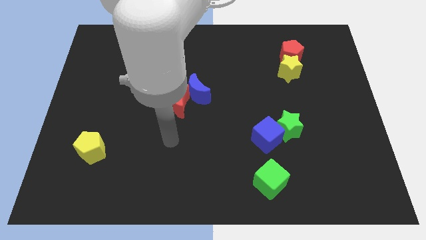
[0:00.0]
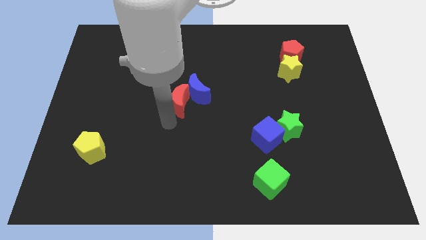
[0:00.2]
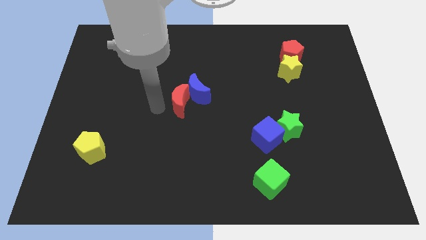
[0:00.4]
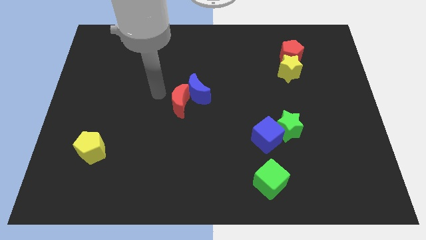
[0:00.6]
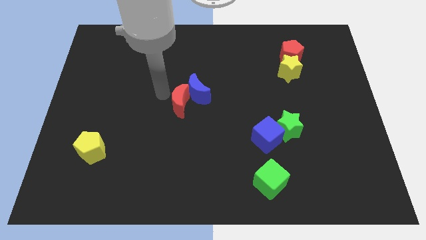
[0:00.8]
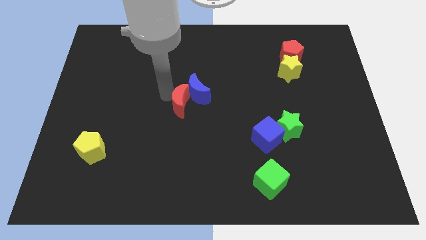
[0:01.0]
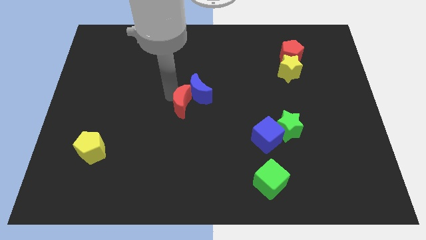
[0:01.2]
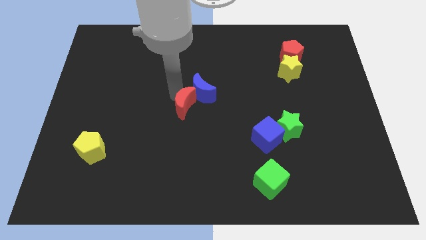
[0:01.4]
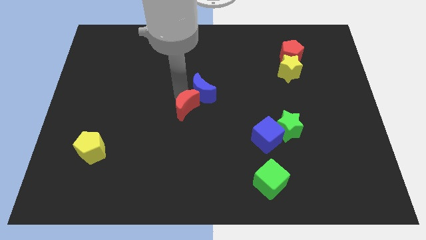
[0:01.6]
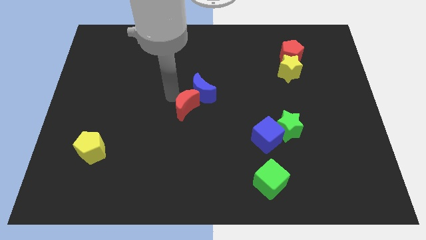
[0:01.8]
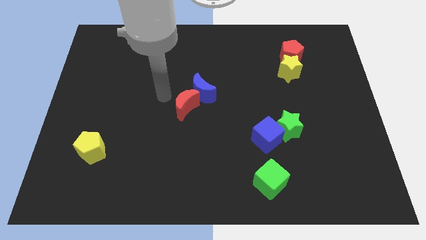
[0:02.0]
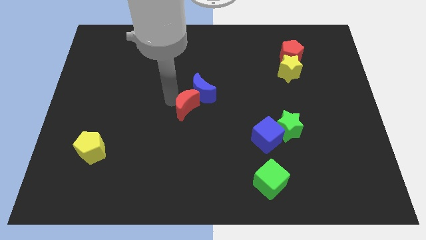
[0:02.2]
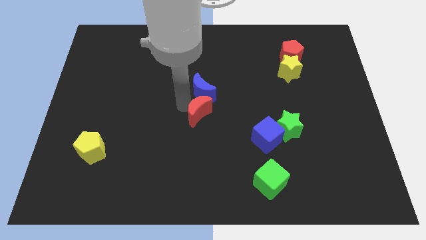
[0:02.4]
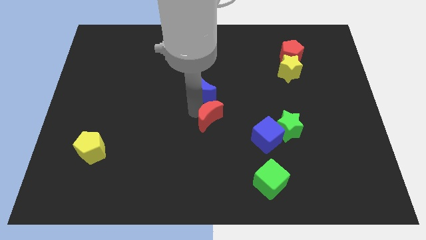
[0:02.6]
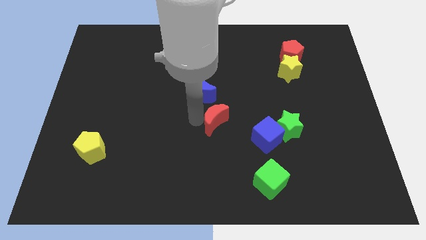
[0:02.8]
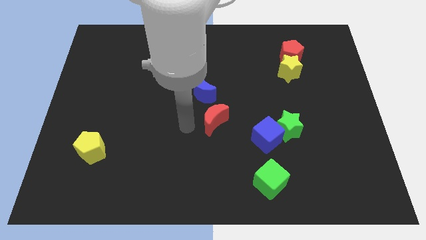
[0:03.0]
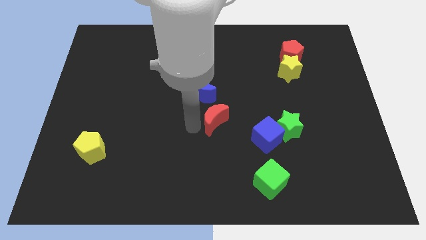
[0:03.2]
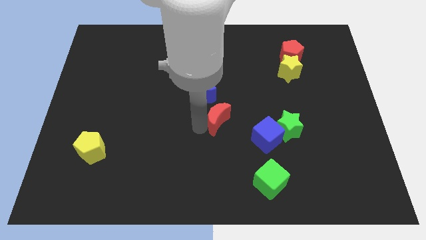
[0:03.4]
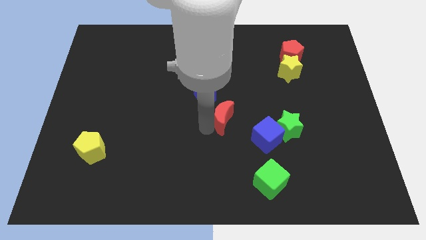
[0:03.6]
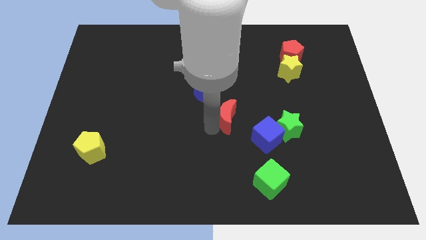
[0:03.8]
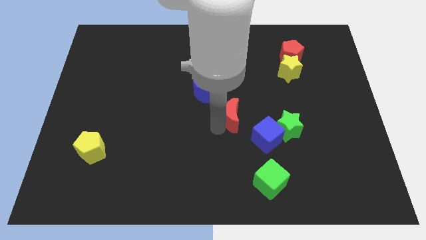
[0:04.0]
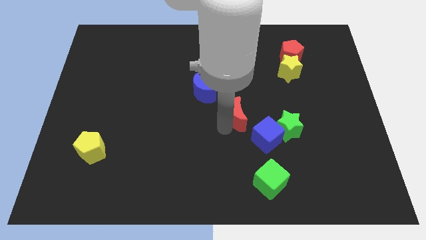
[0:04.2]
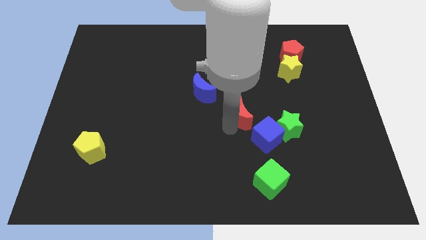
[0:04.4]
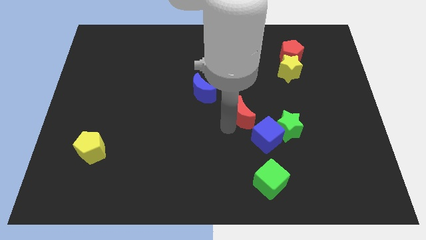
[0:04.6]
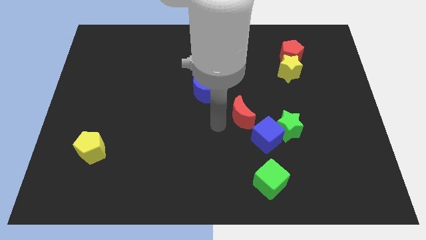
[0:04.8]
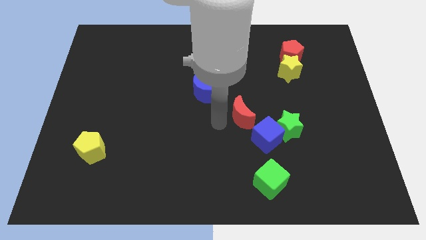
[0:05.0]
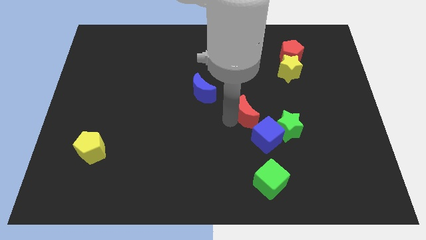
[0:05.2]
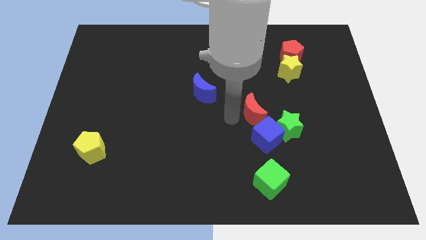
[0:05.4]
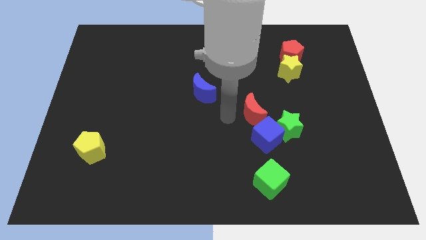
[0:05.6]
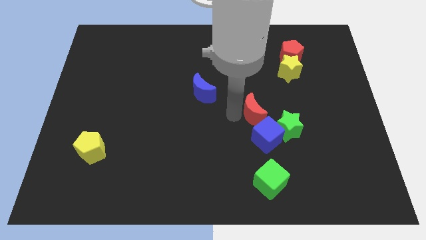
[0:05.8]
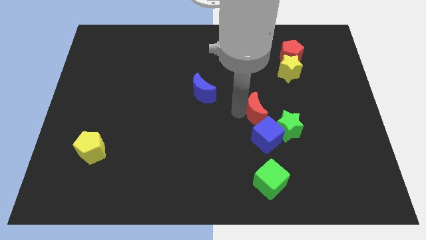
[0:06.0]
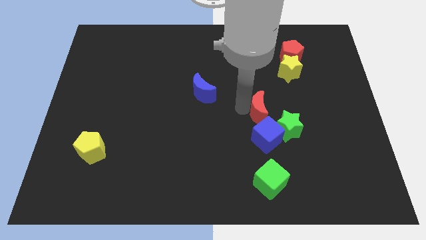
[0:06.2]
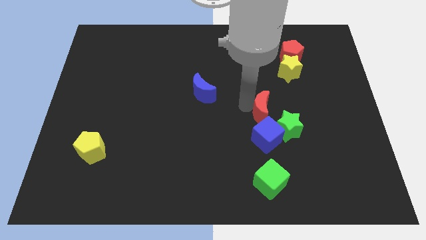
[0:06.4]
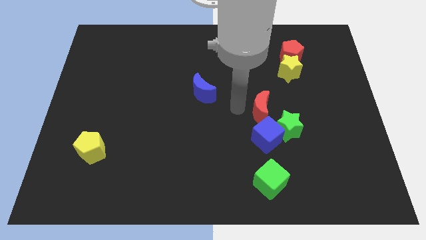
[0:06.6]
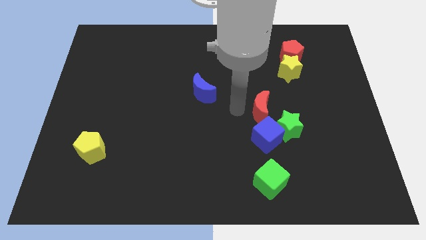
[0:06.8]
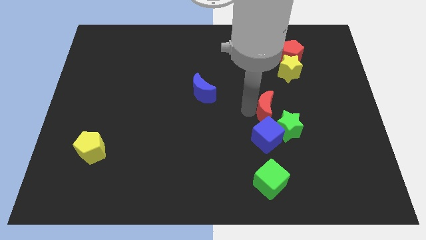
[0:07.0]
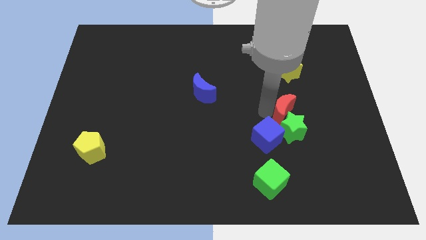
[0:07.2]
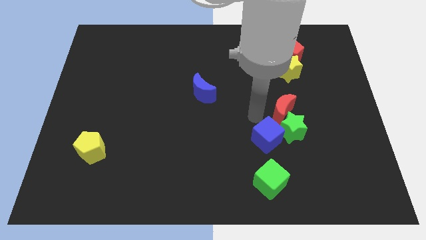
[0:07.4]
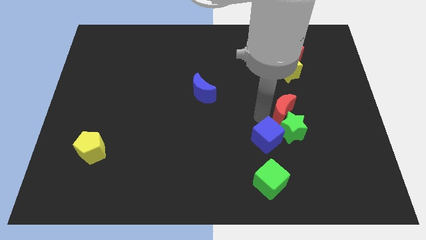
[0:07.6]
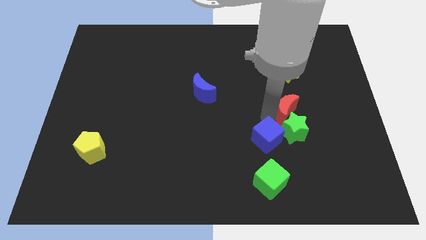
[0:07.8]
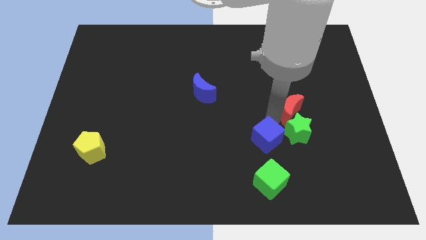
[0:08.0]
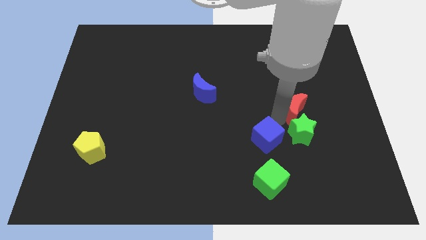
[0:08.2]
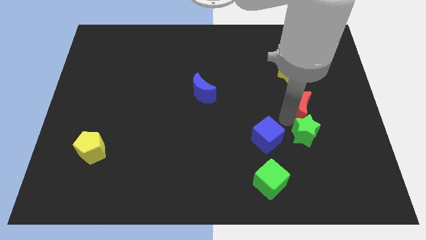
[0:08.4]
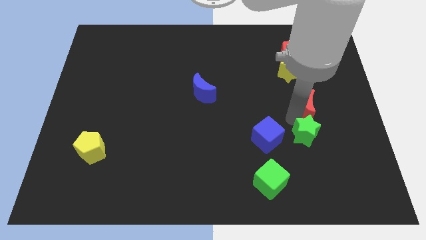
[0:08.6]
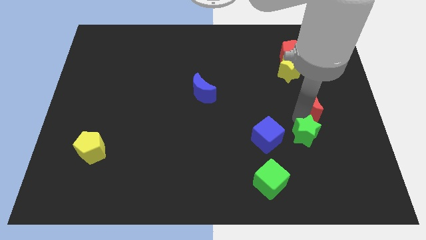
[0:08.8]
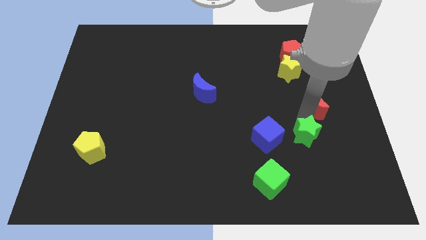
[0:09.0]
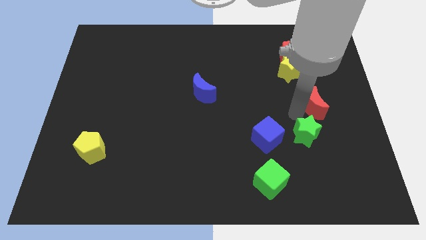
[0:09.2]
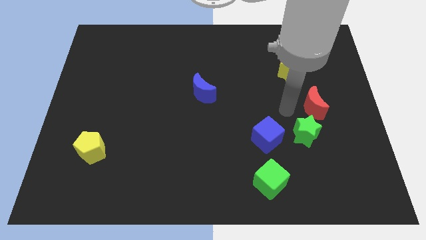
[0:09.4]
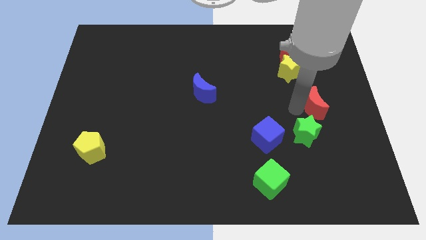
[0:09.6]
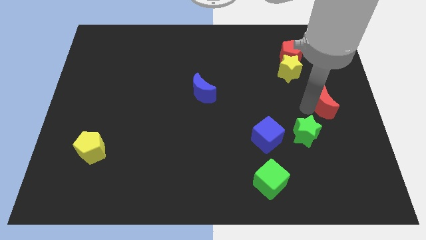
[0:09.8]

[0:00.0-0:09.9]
move the red moon to the right side

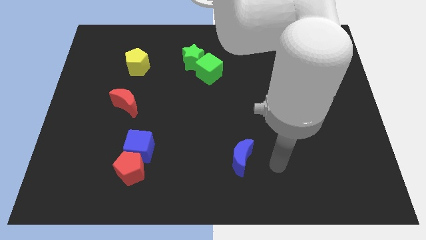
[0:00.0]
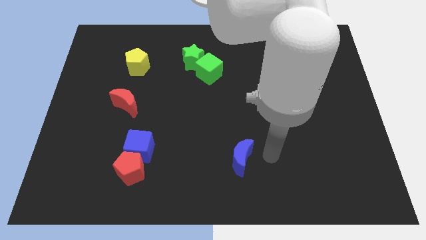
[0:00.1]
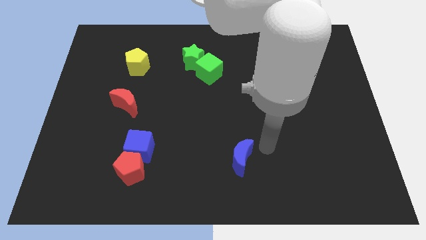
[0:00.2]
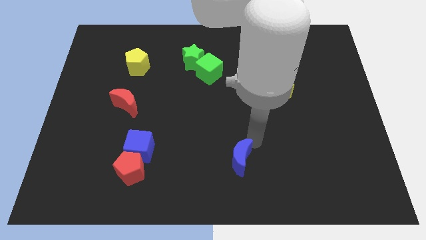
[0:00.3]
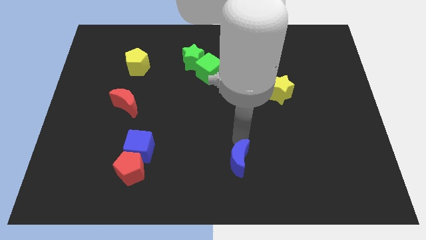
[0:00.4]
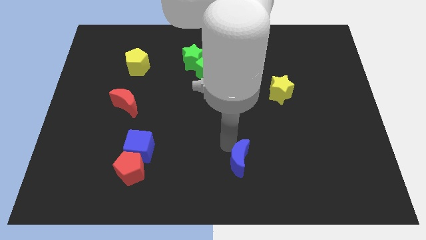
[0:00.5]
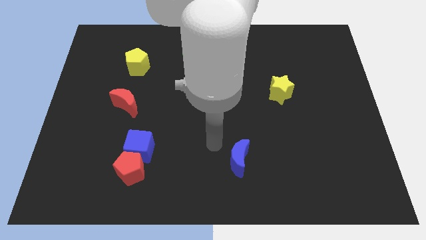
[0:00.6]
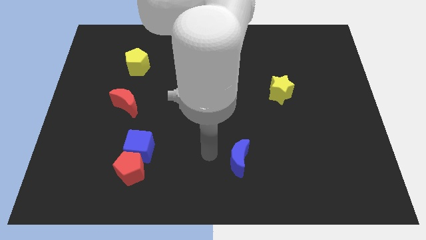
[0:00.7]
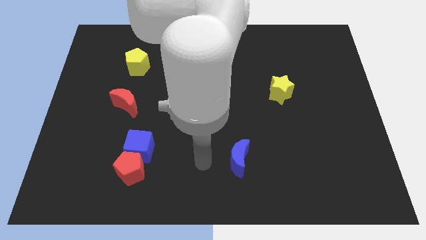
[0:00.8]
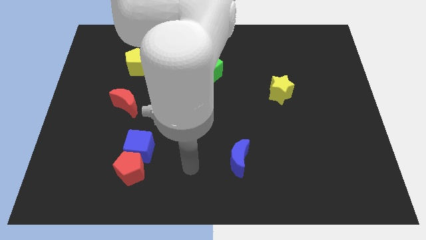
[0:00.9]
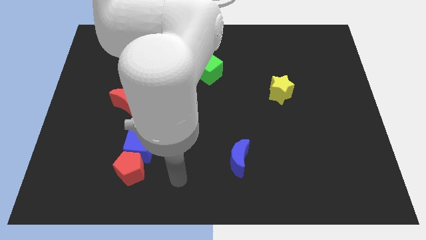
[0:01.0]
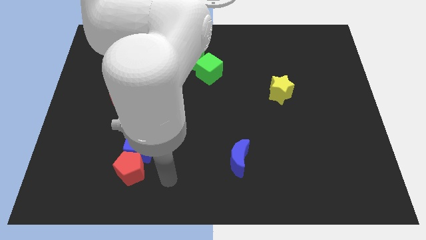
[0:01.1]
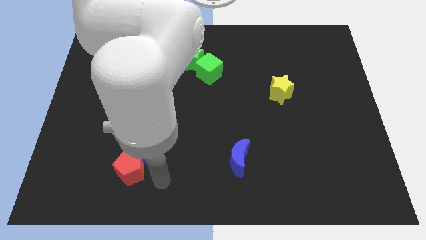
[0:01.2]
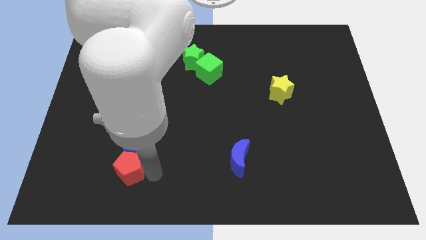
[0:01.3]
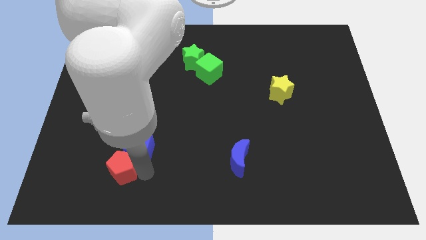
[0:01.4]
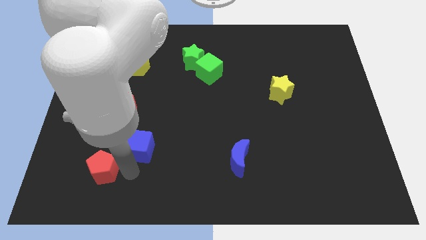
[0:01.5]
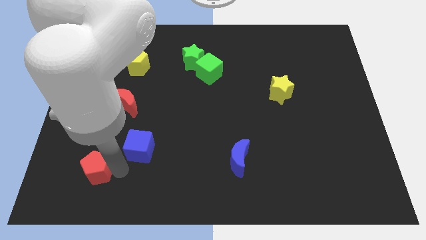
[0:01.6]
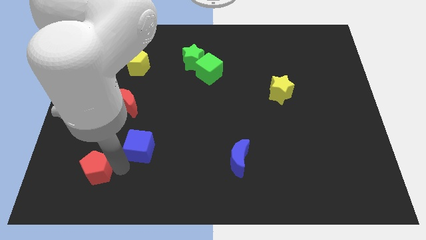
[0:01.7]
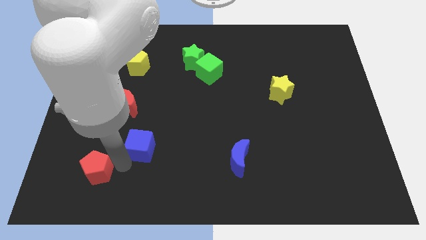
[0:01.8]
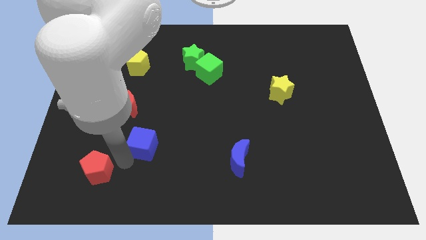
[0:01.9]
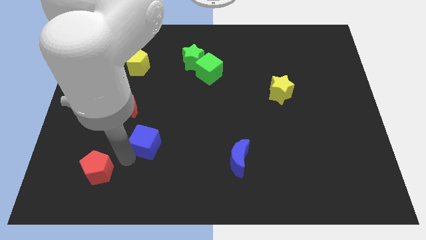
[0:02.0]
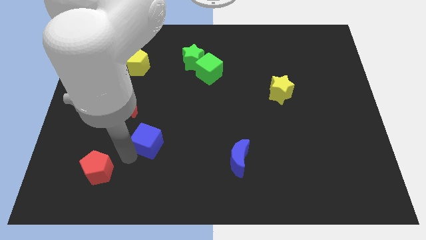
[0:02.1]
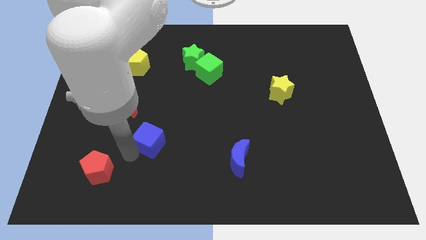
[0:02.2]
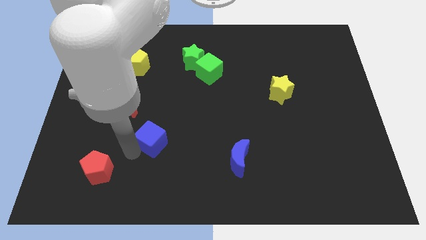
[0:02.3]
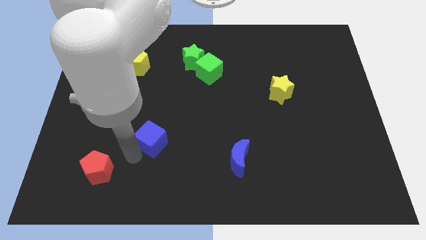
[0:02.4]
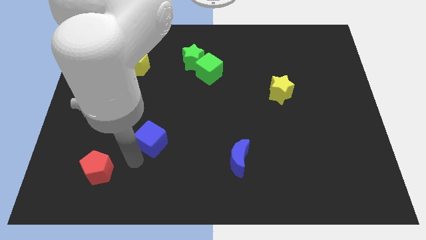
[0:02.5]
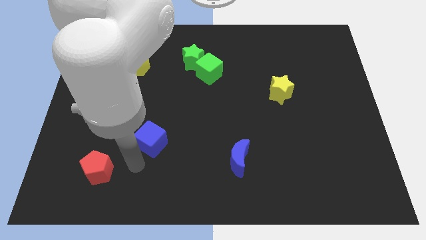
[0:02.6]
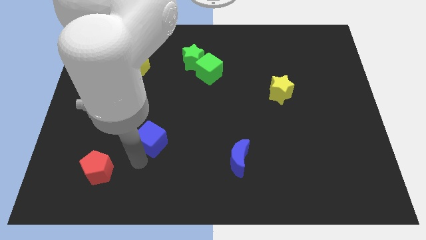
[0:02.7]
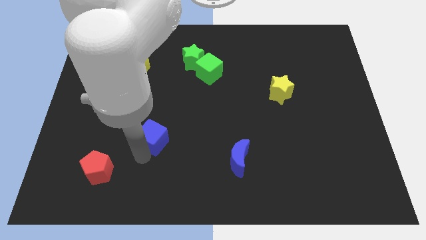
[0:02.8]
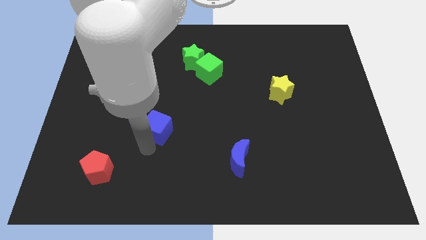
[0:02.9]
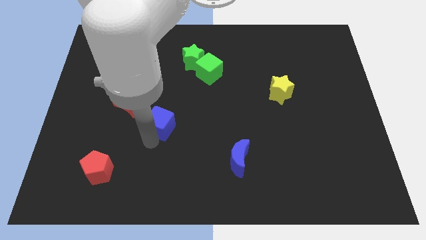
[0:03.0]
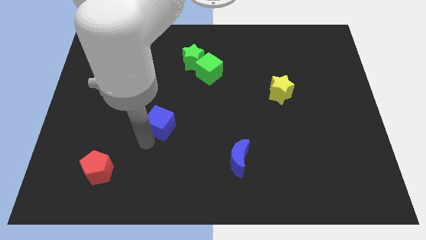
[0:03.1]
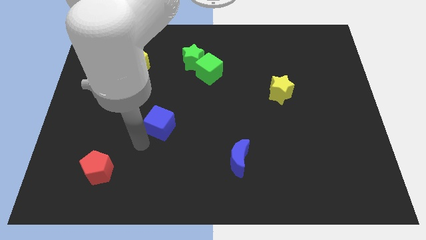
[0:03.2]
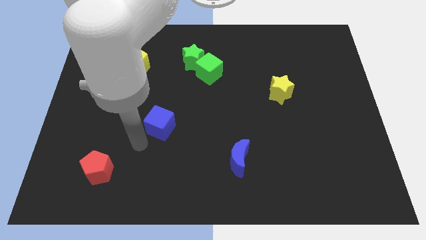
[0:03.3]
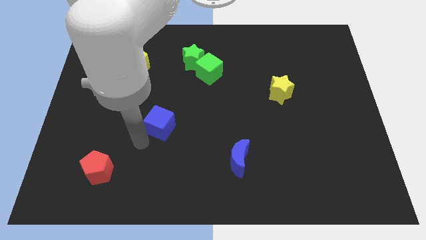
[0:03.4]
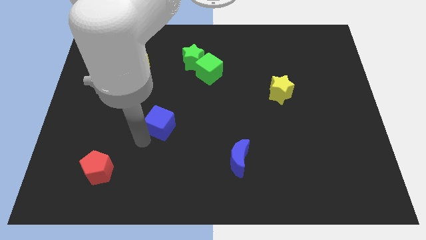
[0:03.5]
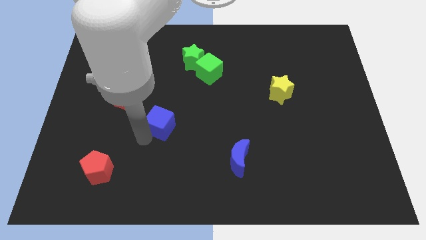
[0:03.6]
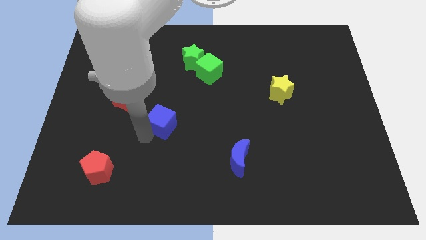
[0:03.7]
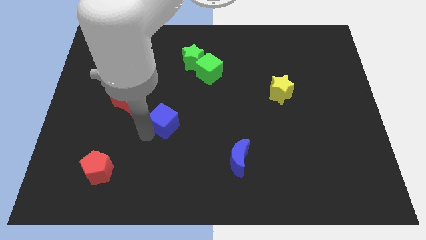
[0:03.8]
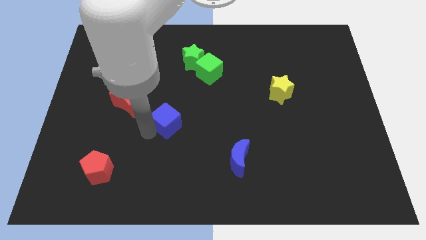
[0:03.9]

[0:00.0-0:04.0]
slide the blue cube to the middle
